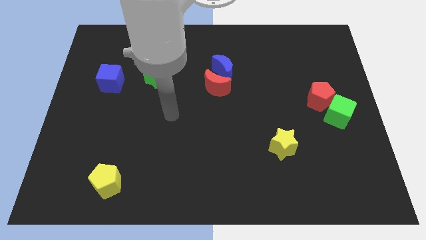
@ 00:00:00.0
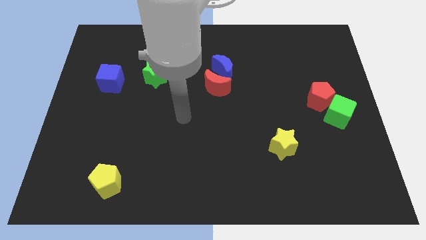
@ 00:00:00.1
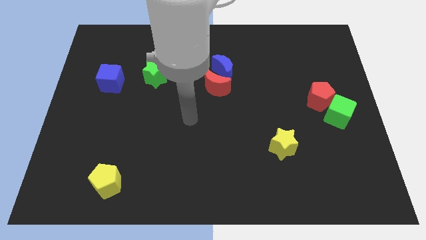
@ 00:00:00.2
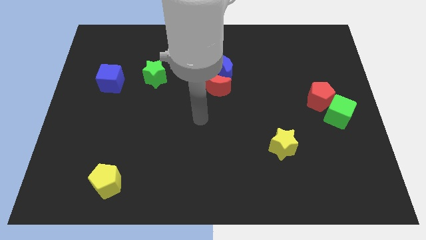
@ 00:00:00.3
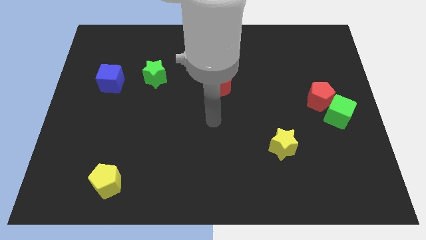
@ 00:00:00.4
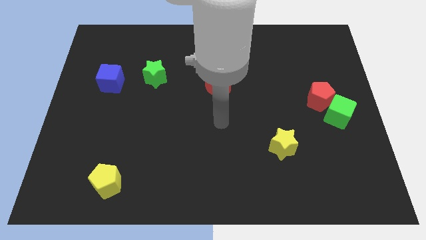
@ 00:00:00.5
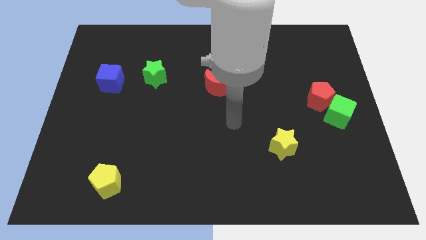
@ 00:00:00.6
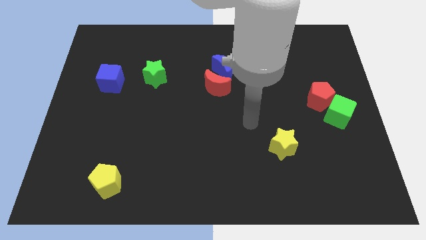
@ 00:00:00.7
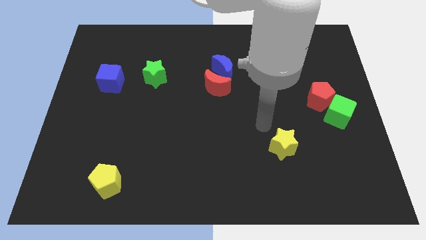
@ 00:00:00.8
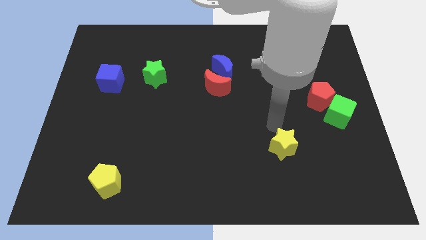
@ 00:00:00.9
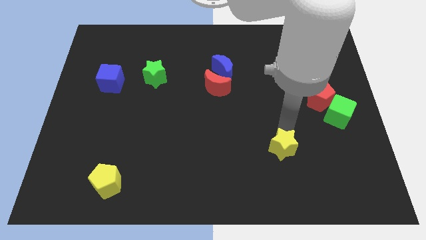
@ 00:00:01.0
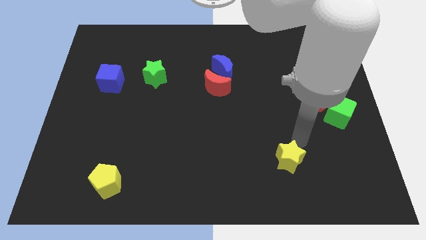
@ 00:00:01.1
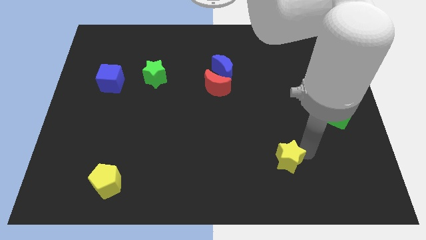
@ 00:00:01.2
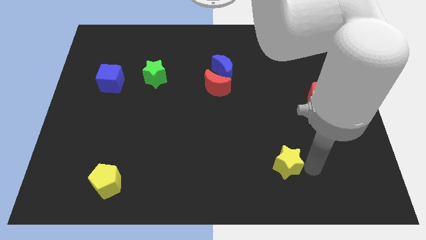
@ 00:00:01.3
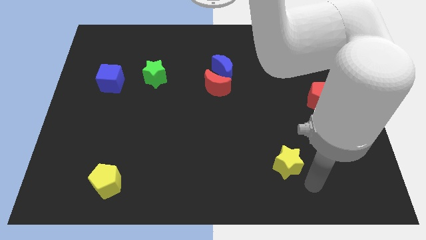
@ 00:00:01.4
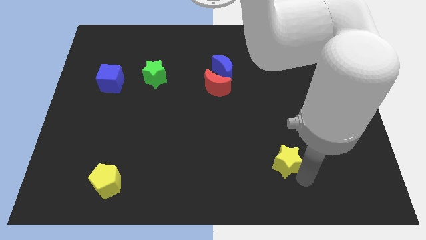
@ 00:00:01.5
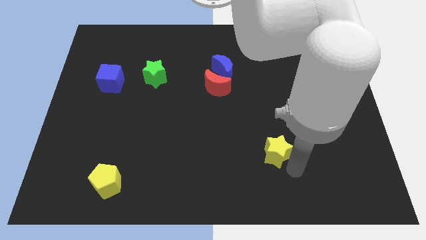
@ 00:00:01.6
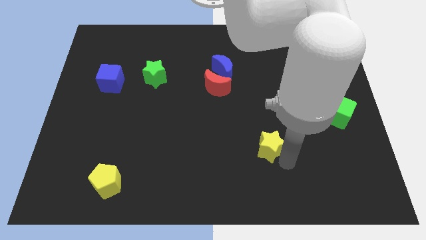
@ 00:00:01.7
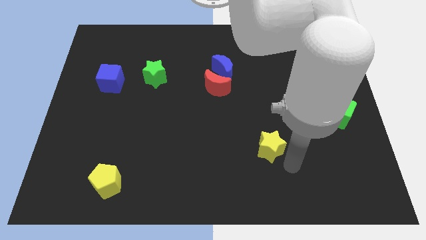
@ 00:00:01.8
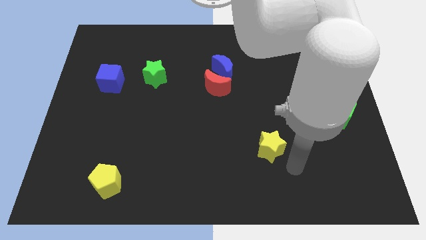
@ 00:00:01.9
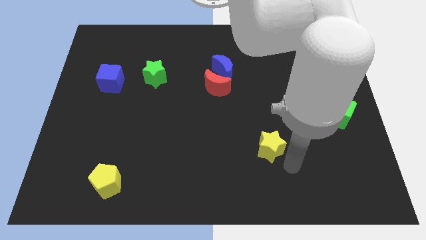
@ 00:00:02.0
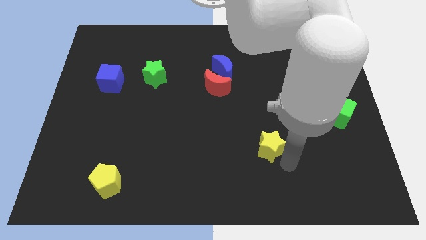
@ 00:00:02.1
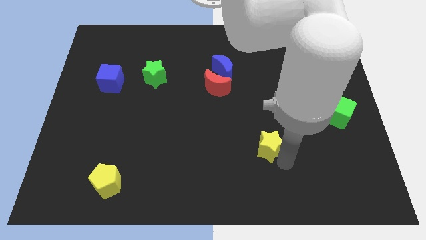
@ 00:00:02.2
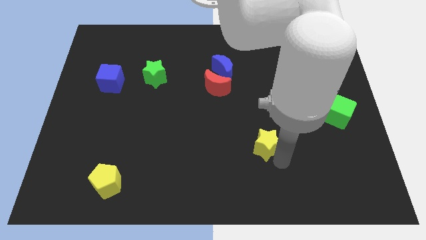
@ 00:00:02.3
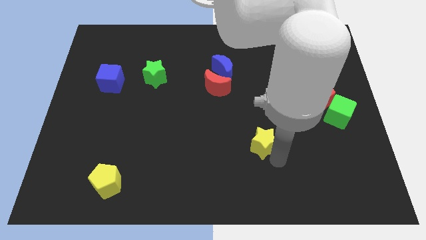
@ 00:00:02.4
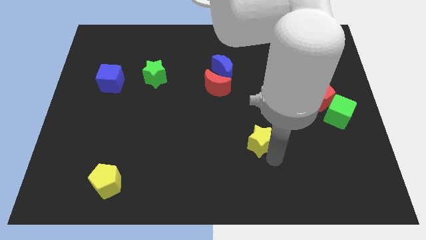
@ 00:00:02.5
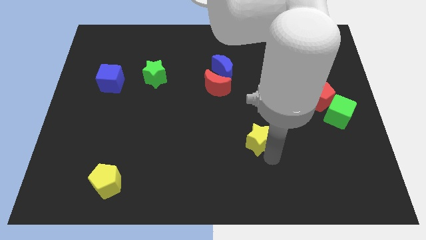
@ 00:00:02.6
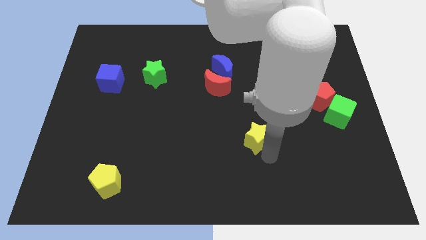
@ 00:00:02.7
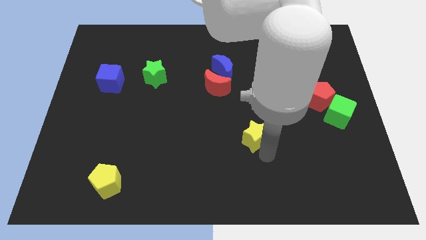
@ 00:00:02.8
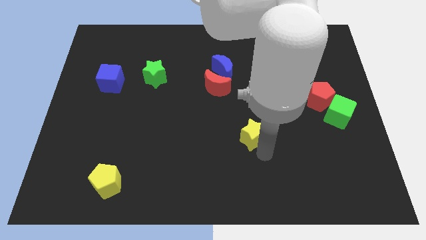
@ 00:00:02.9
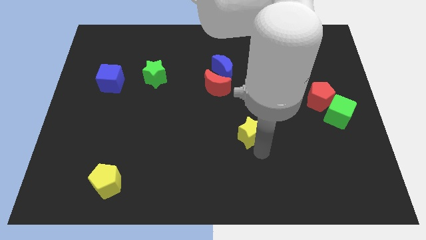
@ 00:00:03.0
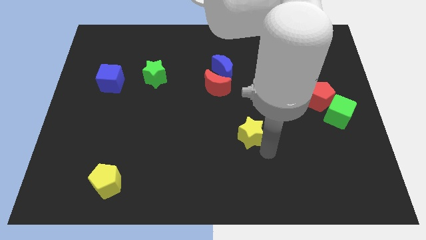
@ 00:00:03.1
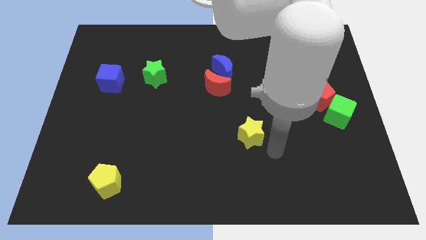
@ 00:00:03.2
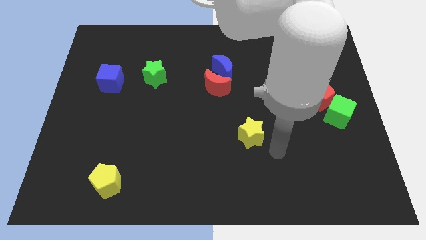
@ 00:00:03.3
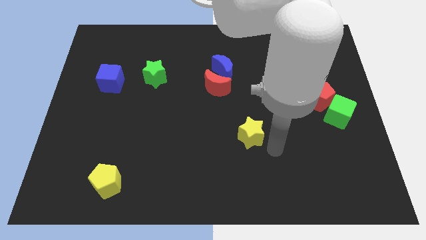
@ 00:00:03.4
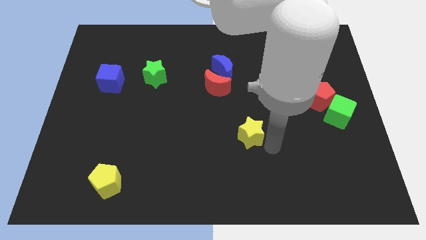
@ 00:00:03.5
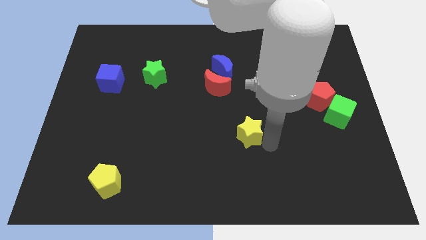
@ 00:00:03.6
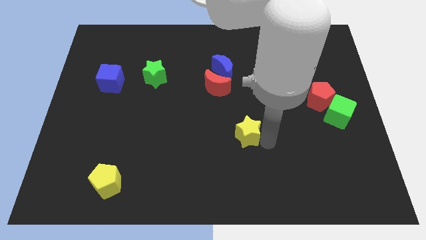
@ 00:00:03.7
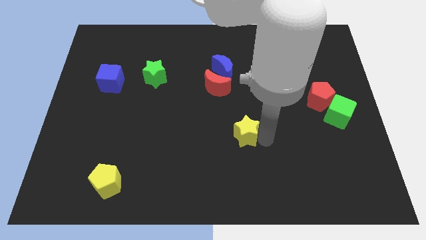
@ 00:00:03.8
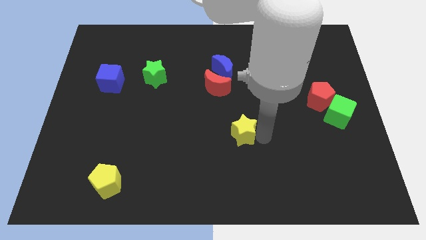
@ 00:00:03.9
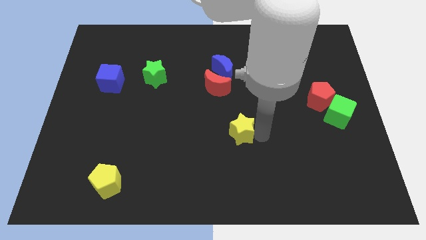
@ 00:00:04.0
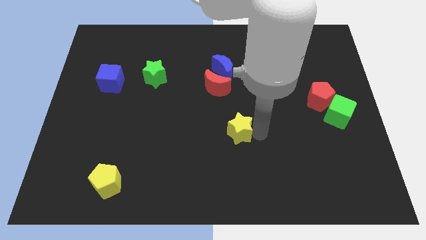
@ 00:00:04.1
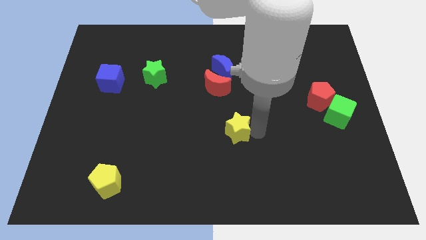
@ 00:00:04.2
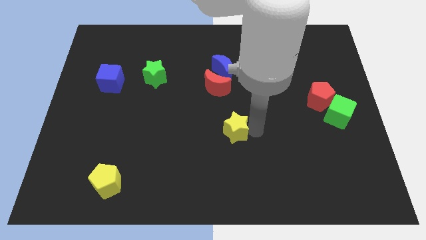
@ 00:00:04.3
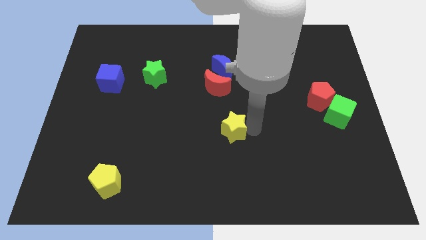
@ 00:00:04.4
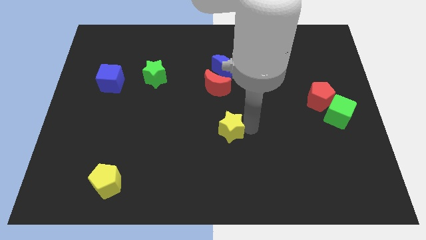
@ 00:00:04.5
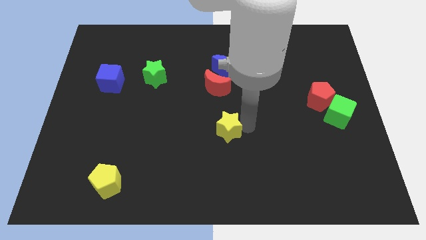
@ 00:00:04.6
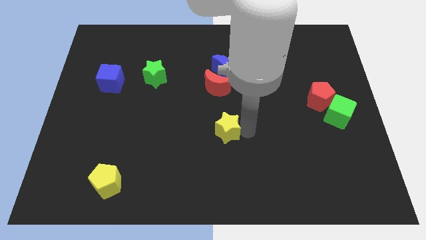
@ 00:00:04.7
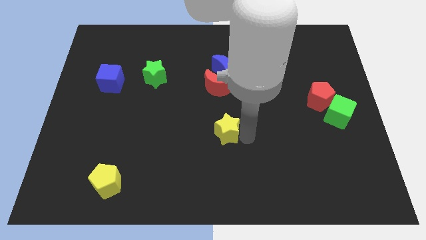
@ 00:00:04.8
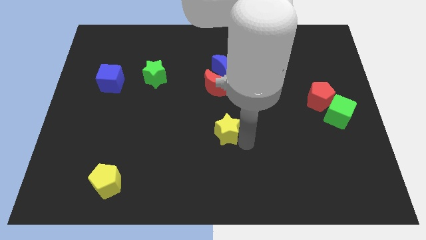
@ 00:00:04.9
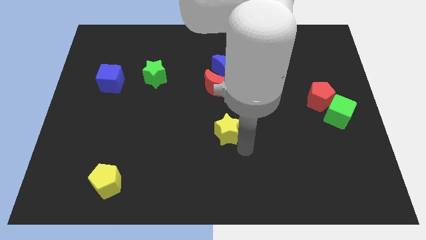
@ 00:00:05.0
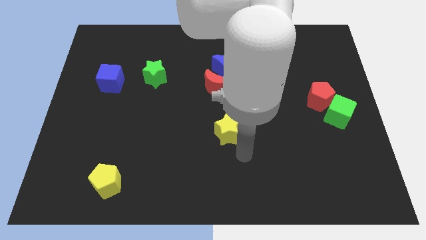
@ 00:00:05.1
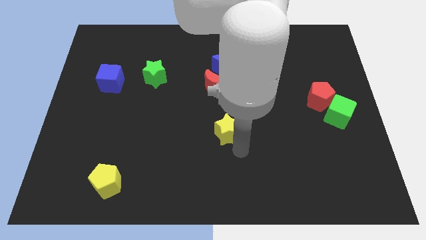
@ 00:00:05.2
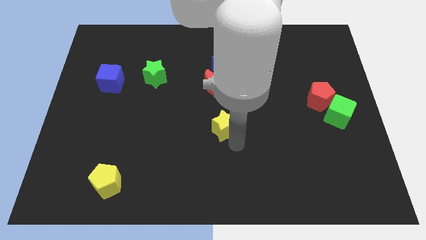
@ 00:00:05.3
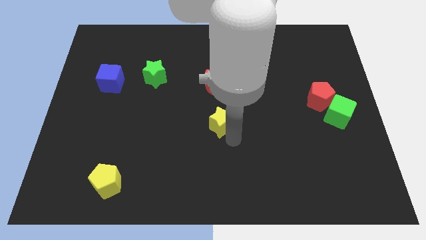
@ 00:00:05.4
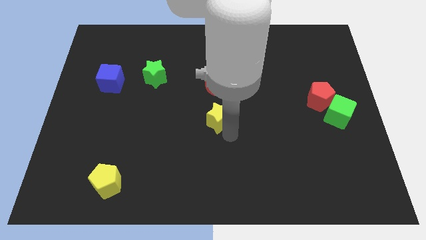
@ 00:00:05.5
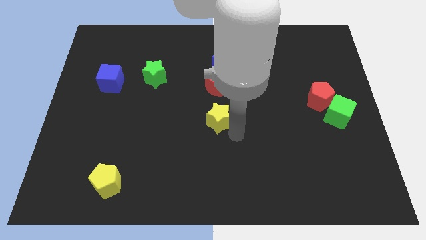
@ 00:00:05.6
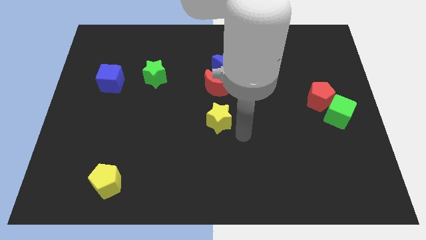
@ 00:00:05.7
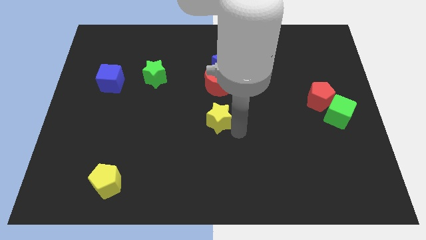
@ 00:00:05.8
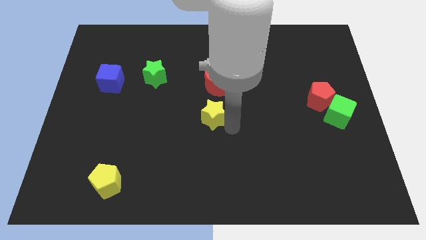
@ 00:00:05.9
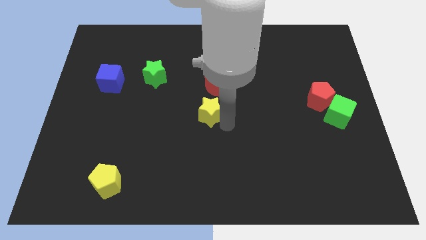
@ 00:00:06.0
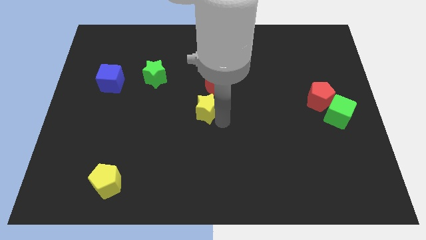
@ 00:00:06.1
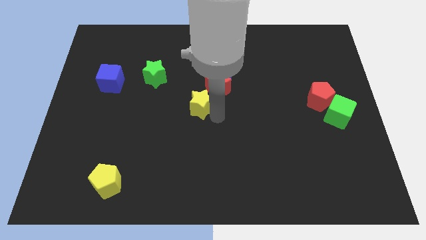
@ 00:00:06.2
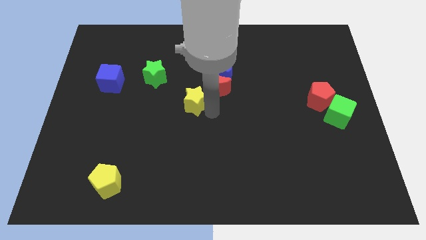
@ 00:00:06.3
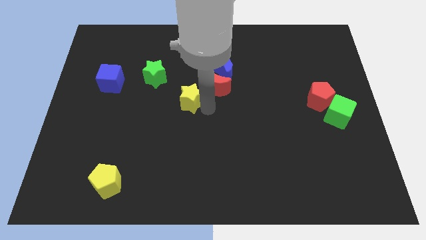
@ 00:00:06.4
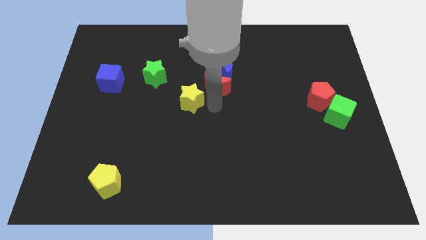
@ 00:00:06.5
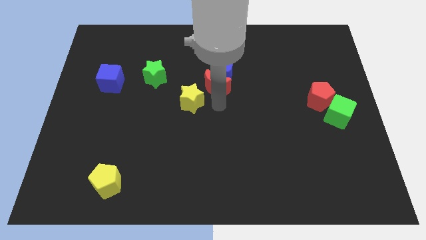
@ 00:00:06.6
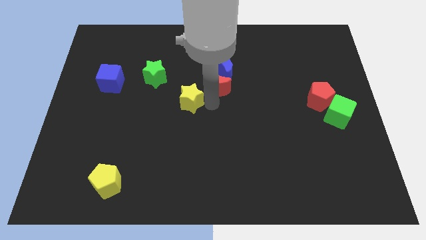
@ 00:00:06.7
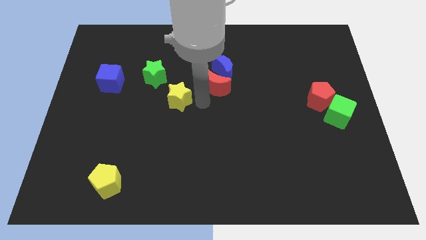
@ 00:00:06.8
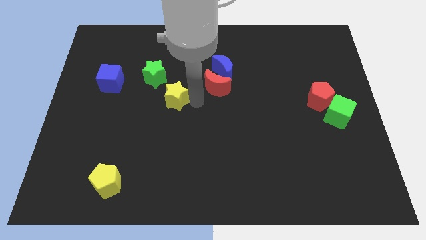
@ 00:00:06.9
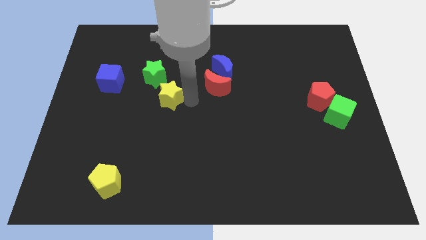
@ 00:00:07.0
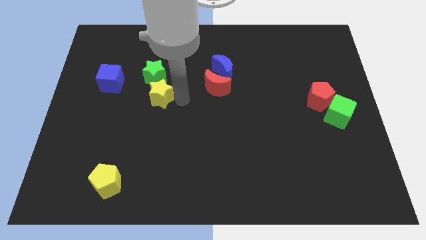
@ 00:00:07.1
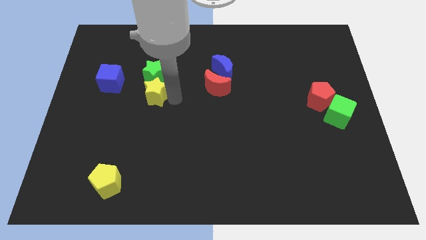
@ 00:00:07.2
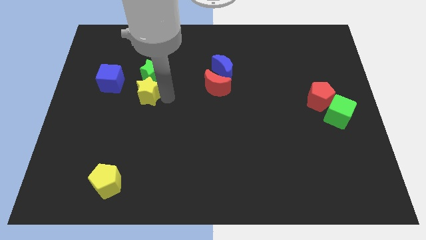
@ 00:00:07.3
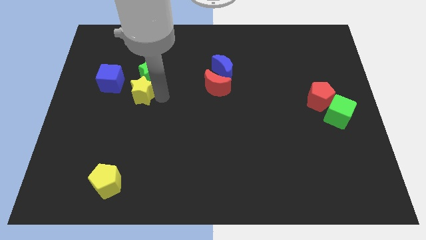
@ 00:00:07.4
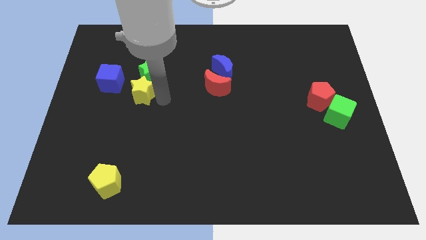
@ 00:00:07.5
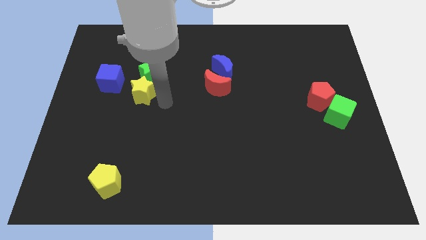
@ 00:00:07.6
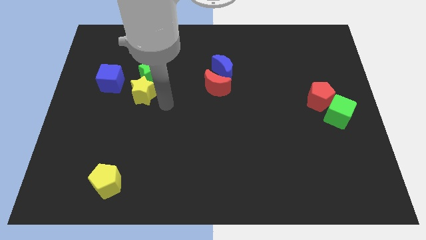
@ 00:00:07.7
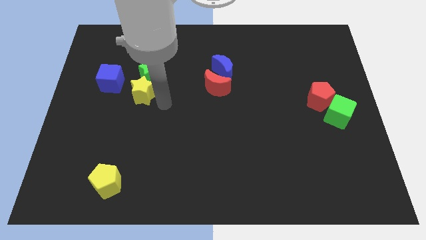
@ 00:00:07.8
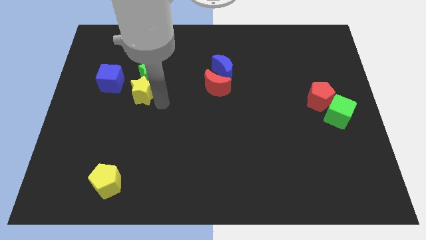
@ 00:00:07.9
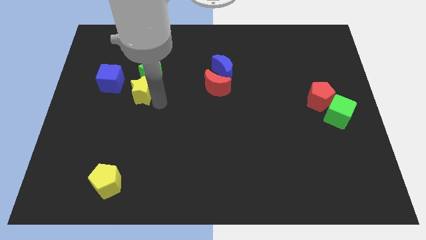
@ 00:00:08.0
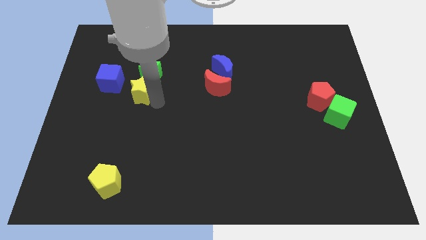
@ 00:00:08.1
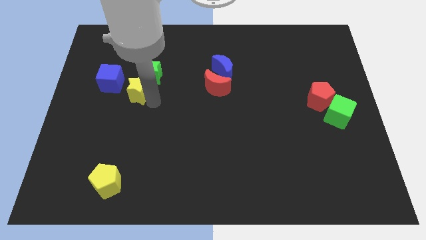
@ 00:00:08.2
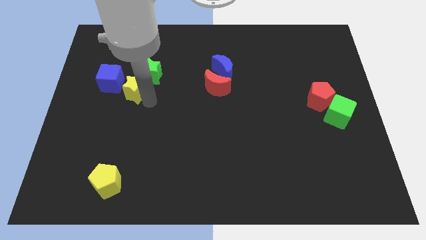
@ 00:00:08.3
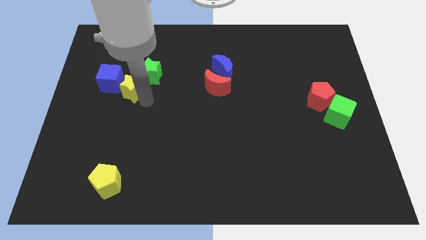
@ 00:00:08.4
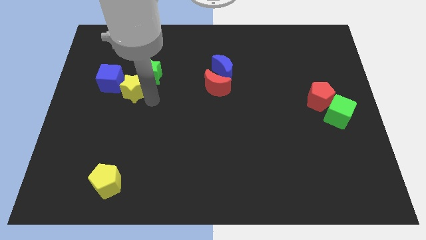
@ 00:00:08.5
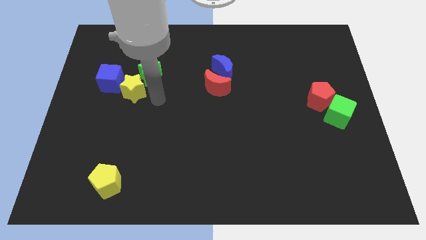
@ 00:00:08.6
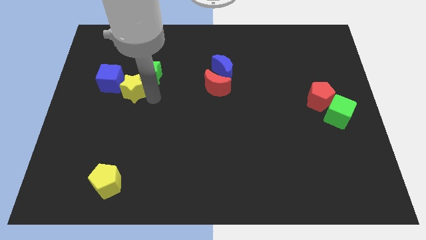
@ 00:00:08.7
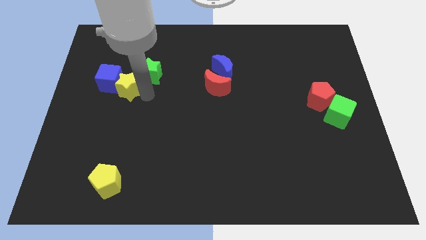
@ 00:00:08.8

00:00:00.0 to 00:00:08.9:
push the yellow star towards the blue cube
